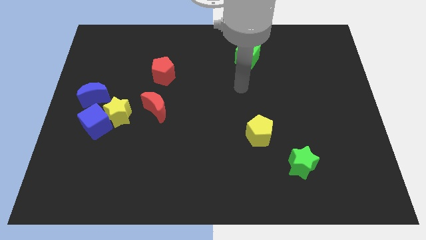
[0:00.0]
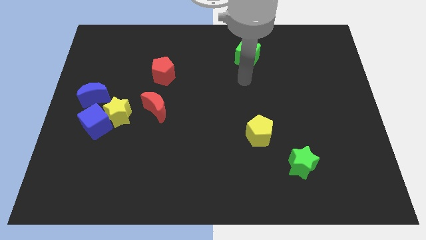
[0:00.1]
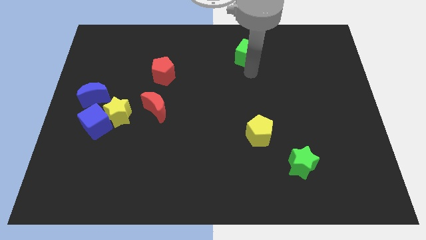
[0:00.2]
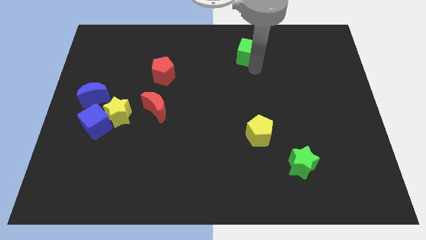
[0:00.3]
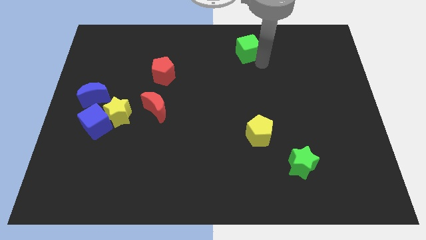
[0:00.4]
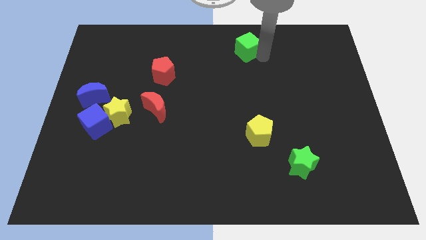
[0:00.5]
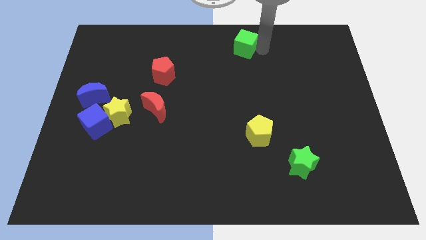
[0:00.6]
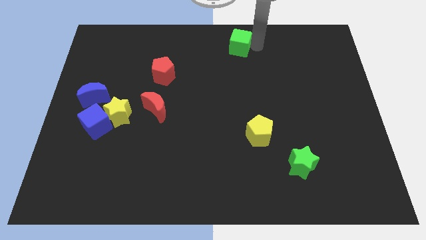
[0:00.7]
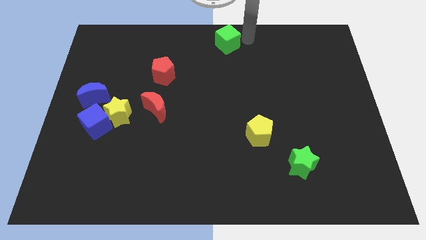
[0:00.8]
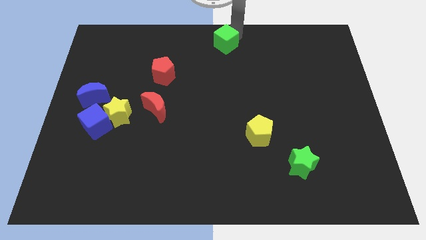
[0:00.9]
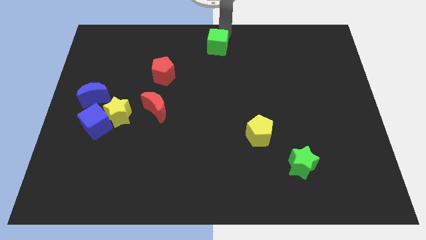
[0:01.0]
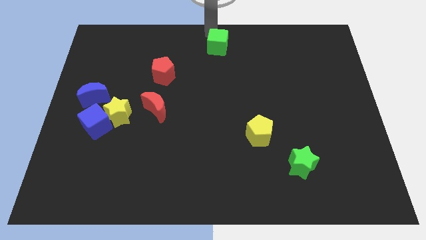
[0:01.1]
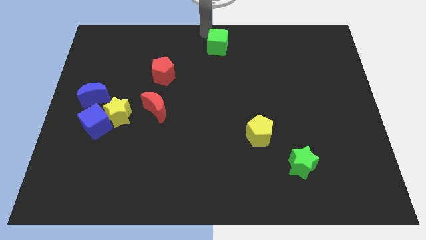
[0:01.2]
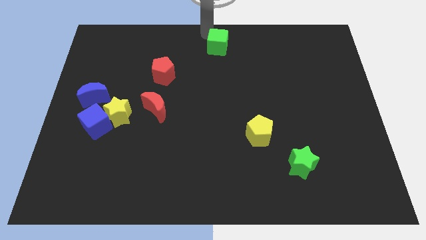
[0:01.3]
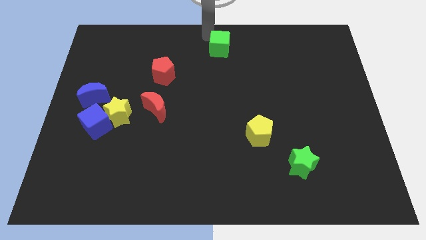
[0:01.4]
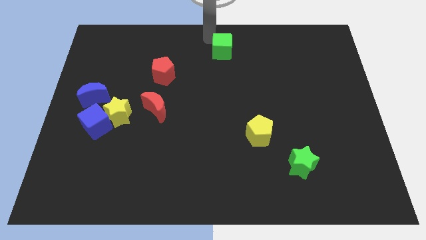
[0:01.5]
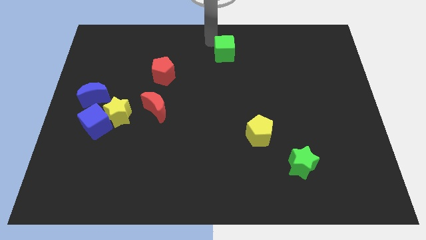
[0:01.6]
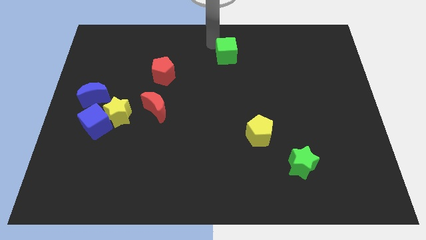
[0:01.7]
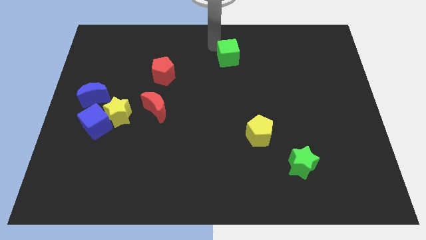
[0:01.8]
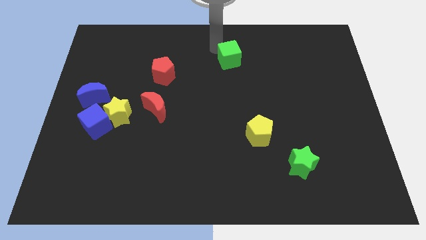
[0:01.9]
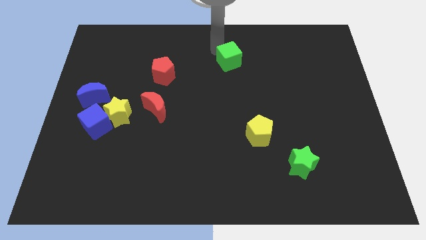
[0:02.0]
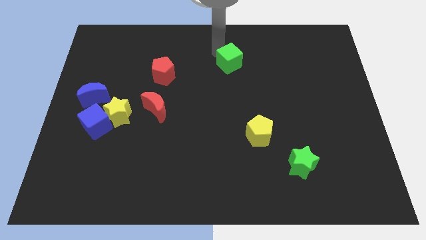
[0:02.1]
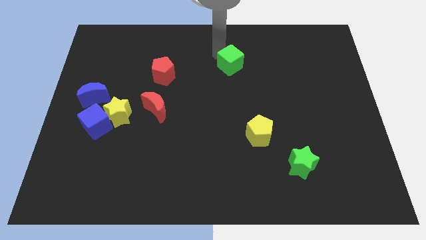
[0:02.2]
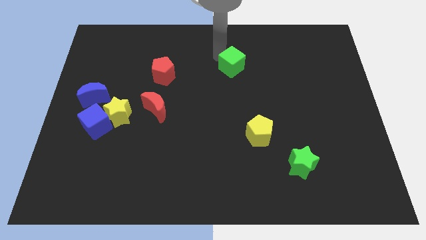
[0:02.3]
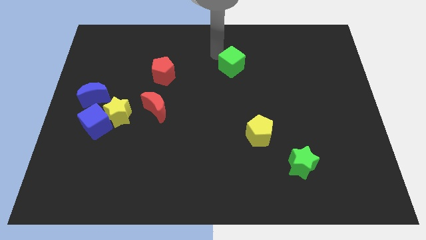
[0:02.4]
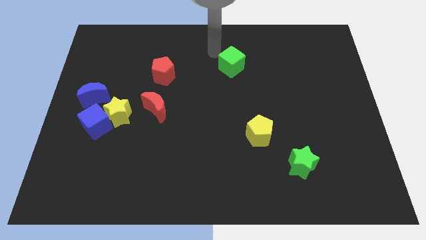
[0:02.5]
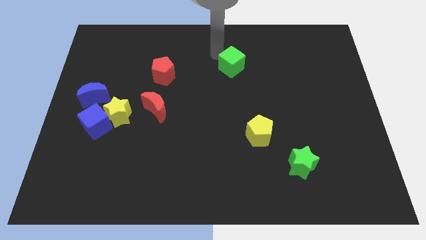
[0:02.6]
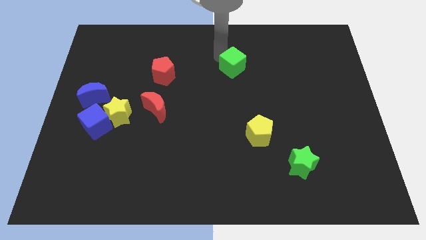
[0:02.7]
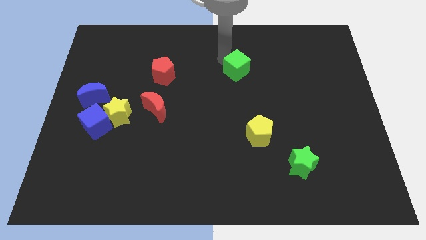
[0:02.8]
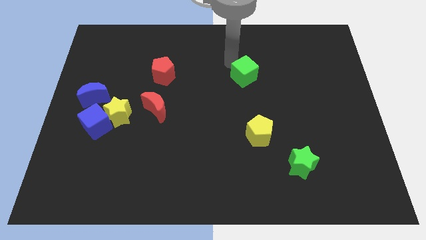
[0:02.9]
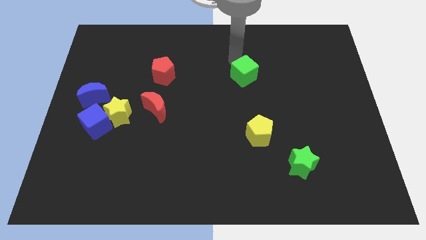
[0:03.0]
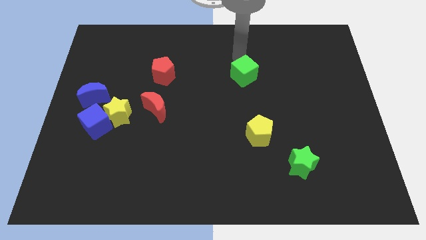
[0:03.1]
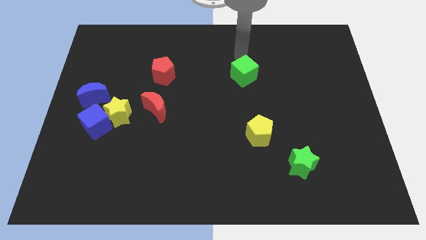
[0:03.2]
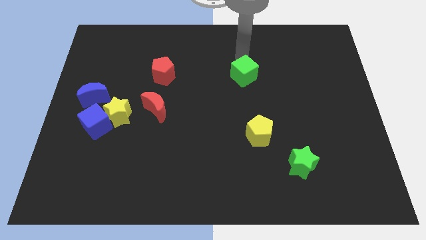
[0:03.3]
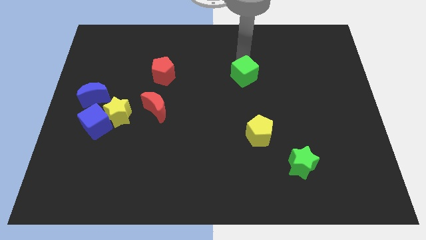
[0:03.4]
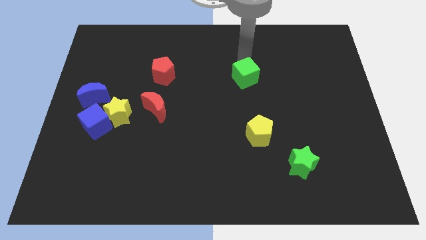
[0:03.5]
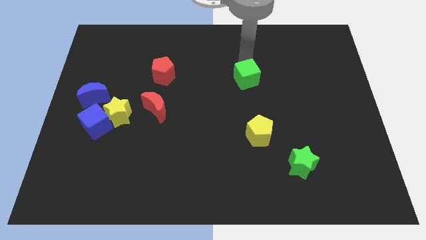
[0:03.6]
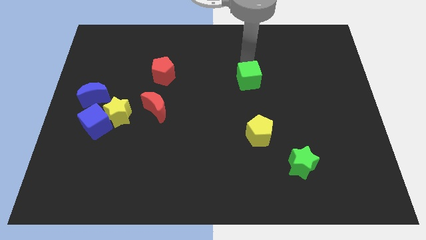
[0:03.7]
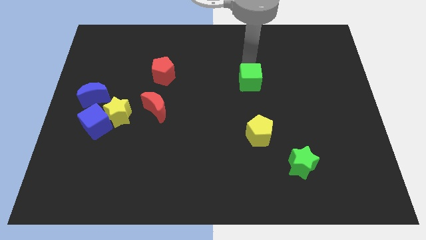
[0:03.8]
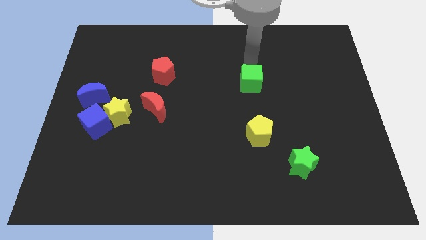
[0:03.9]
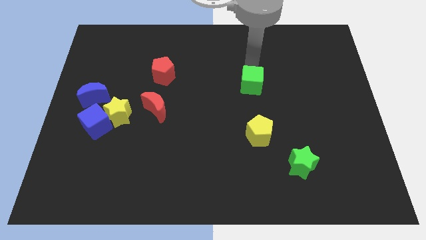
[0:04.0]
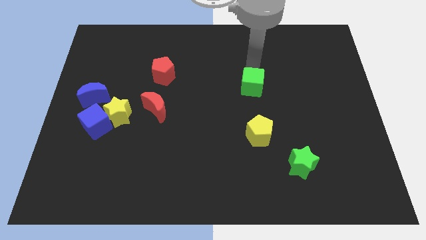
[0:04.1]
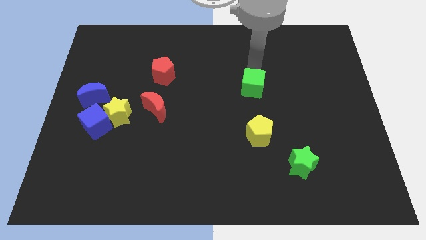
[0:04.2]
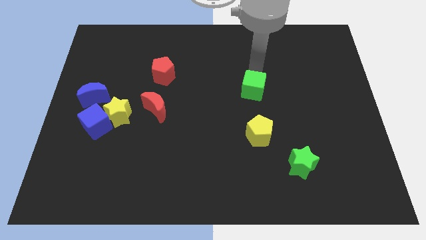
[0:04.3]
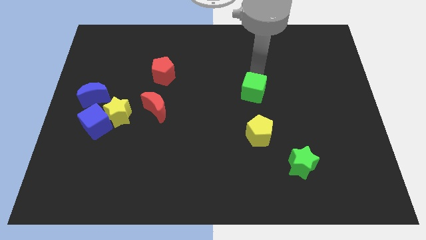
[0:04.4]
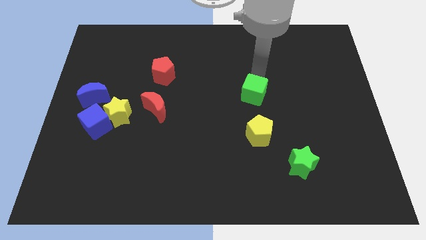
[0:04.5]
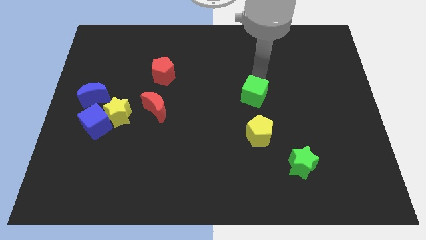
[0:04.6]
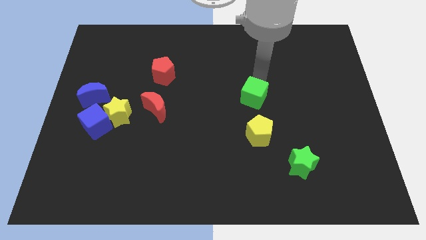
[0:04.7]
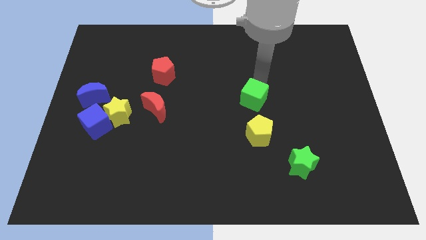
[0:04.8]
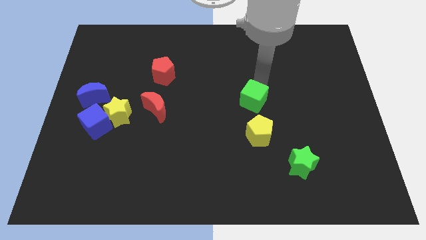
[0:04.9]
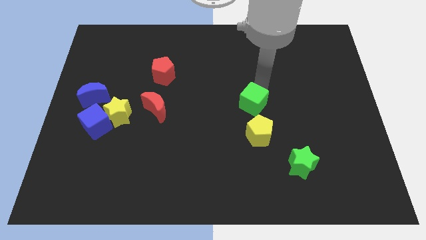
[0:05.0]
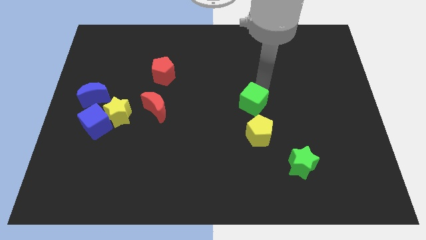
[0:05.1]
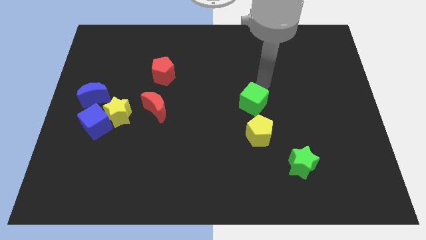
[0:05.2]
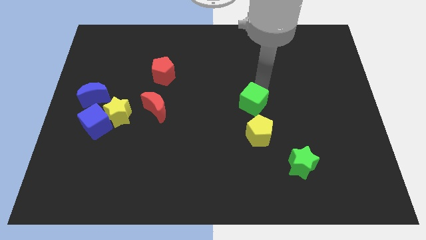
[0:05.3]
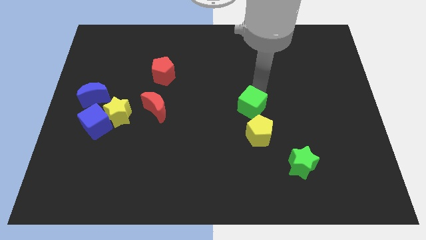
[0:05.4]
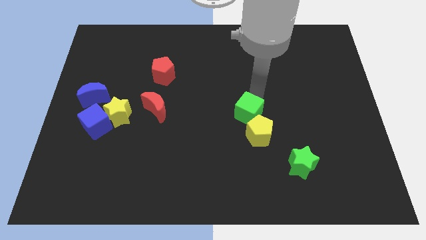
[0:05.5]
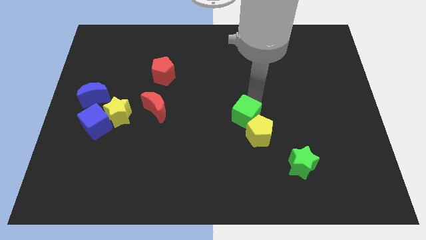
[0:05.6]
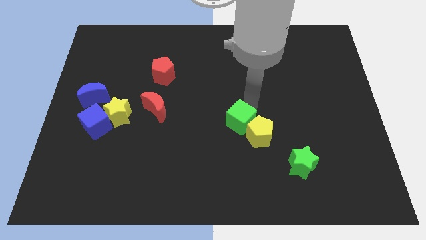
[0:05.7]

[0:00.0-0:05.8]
move the green cube downwards

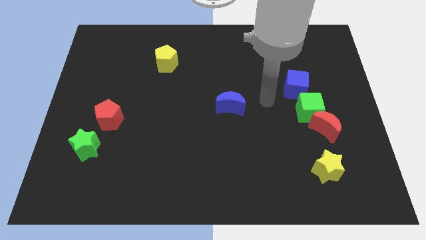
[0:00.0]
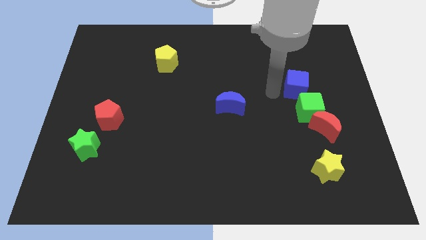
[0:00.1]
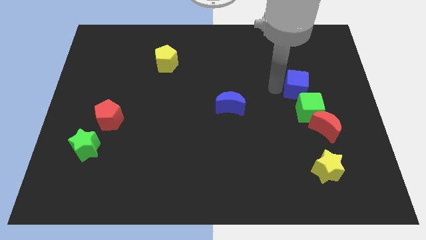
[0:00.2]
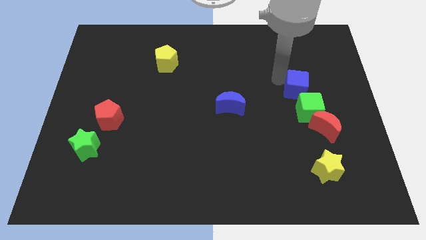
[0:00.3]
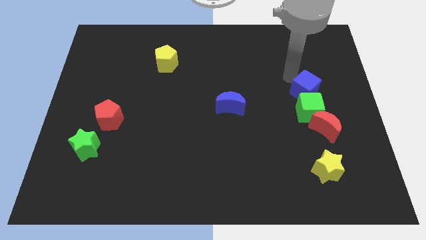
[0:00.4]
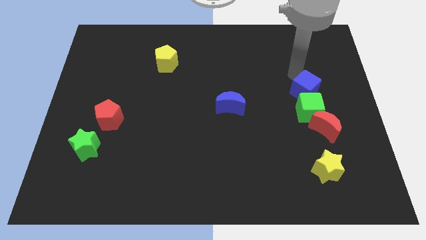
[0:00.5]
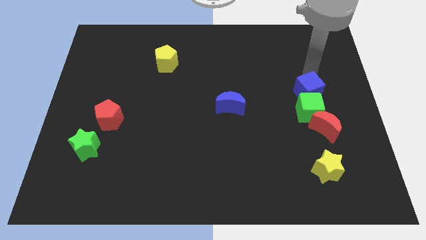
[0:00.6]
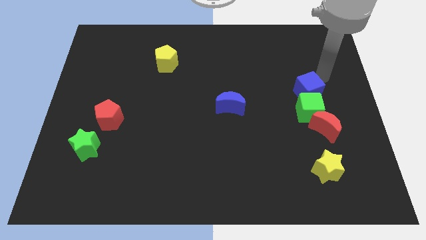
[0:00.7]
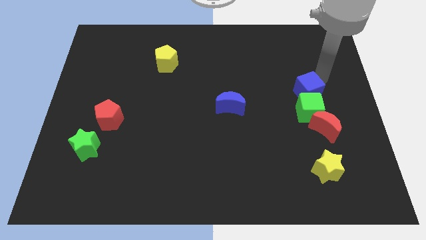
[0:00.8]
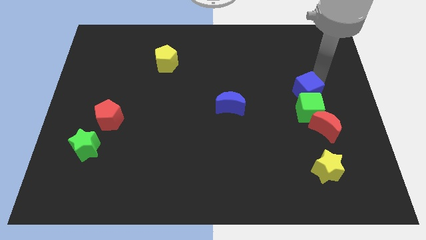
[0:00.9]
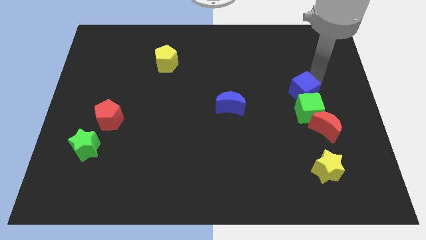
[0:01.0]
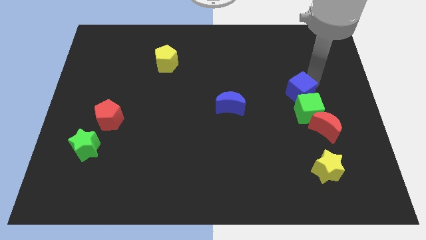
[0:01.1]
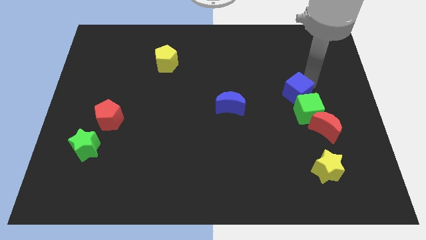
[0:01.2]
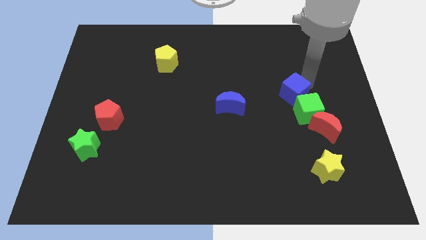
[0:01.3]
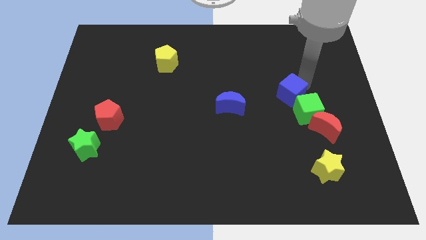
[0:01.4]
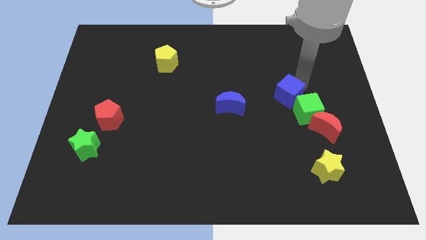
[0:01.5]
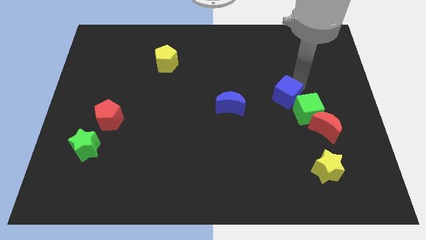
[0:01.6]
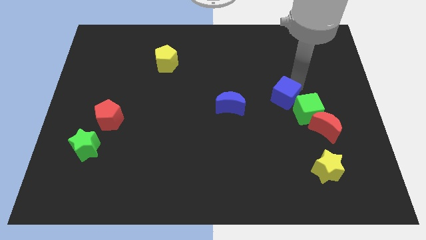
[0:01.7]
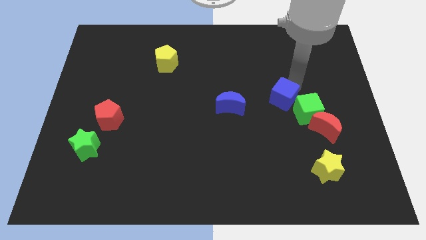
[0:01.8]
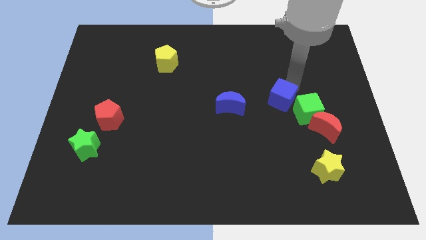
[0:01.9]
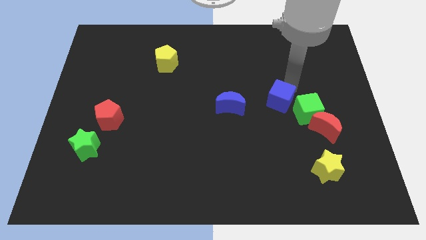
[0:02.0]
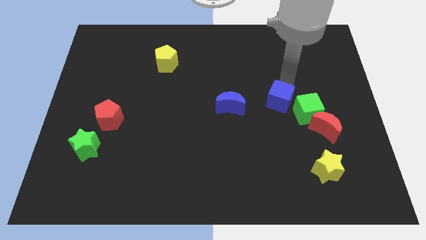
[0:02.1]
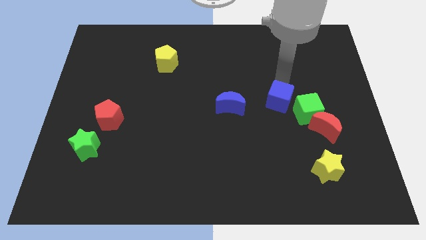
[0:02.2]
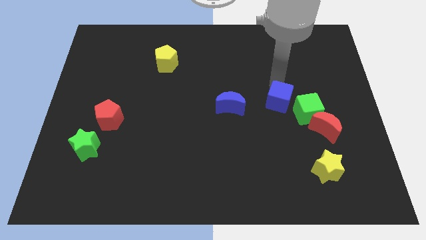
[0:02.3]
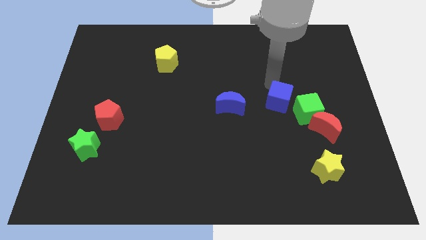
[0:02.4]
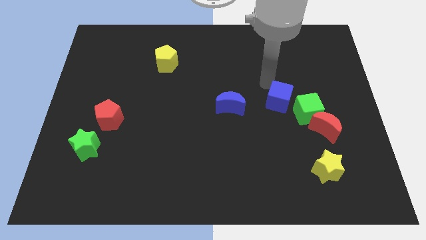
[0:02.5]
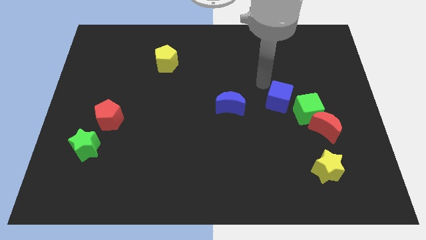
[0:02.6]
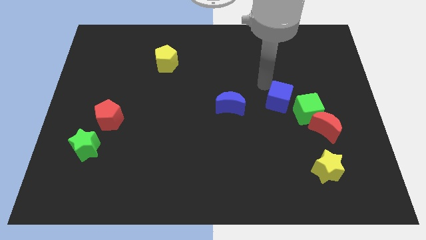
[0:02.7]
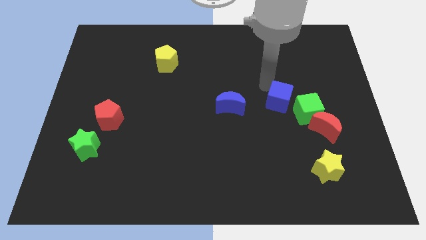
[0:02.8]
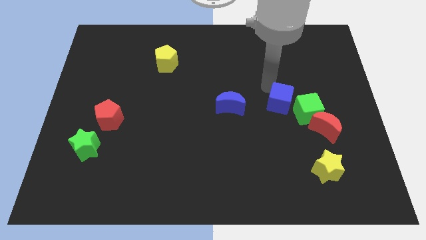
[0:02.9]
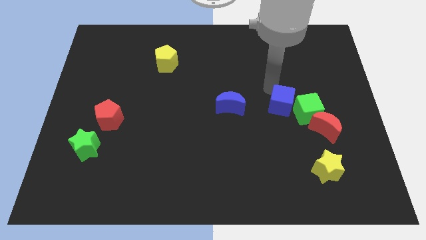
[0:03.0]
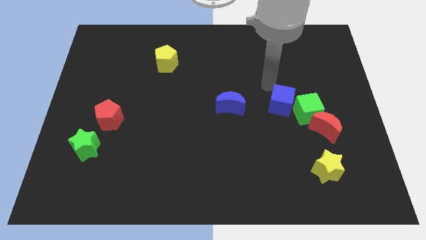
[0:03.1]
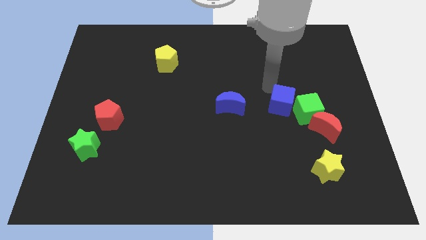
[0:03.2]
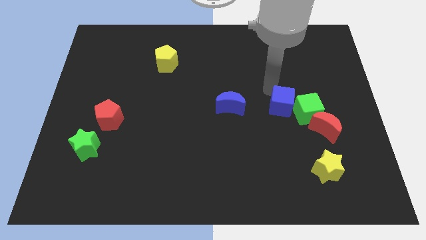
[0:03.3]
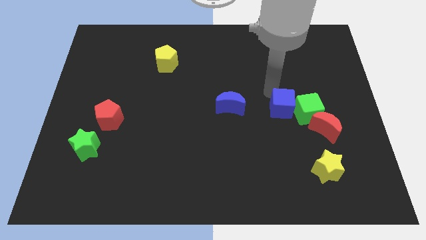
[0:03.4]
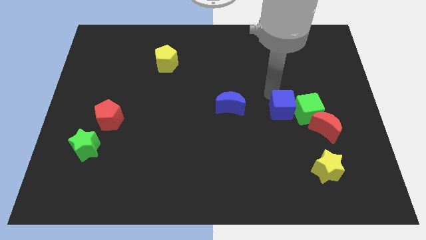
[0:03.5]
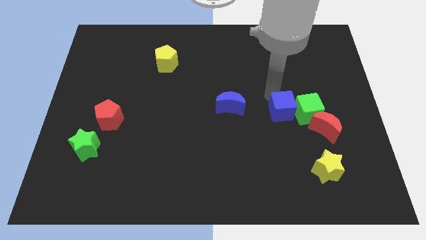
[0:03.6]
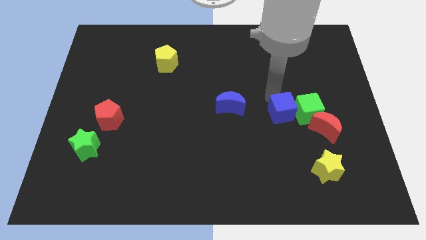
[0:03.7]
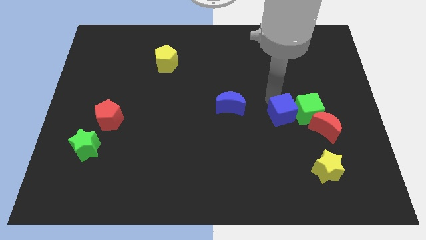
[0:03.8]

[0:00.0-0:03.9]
slightly move the blue cube downwards
